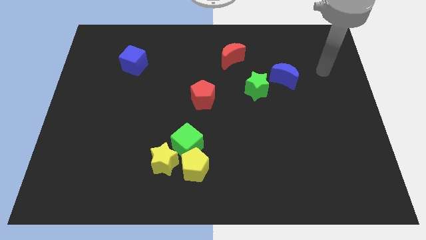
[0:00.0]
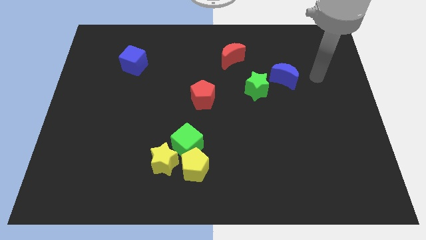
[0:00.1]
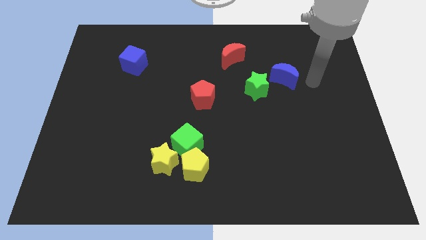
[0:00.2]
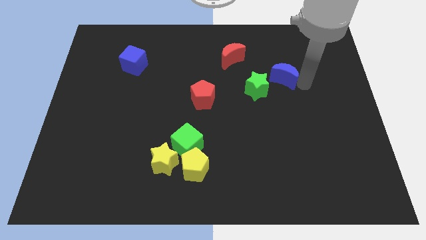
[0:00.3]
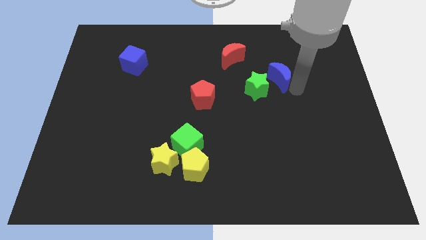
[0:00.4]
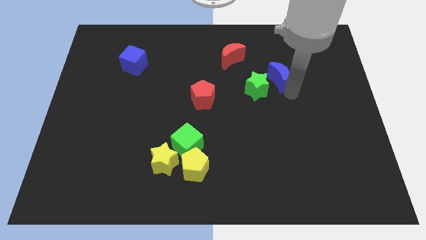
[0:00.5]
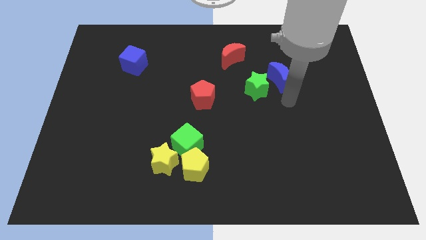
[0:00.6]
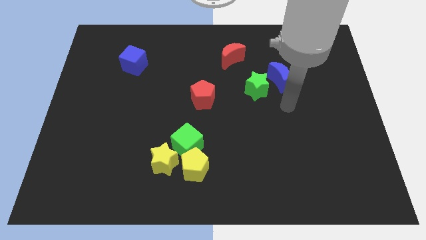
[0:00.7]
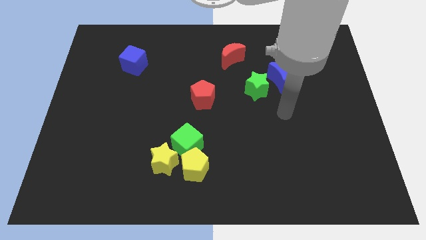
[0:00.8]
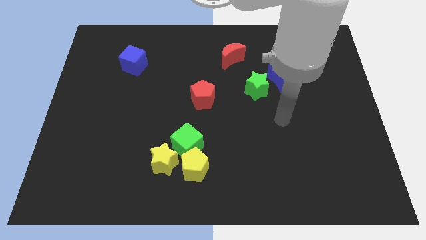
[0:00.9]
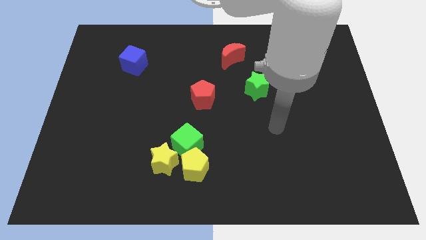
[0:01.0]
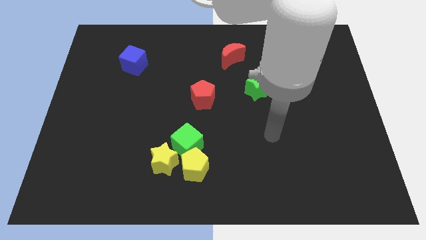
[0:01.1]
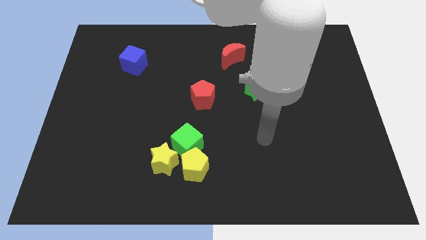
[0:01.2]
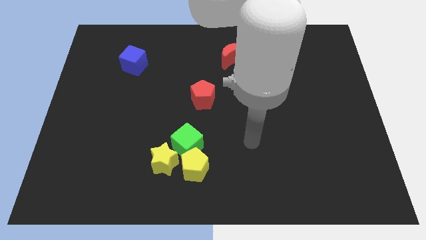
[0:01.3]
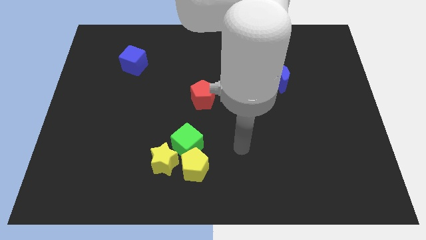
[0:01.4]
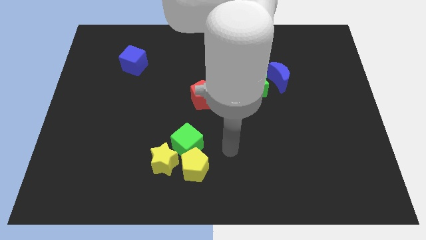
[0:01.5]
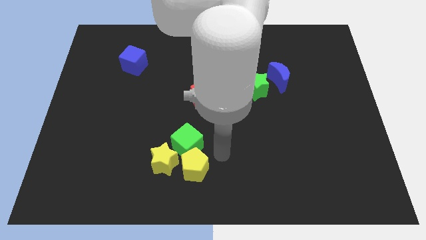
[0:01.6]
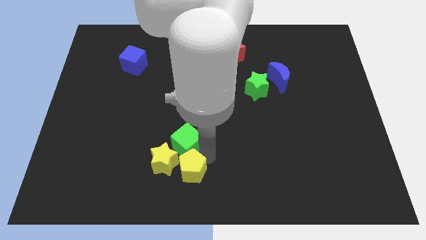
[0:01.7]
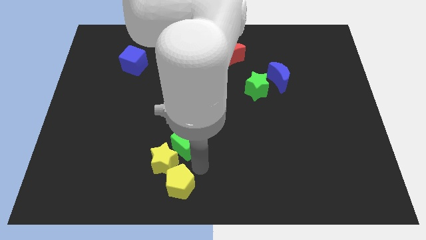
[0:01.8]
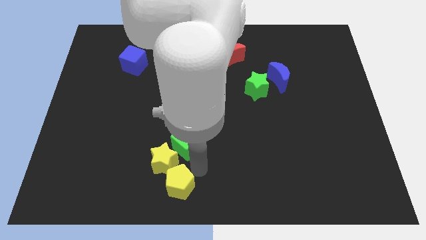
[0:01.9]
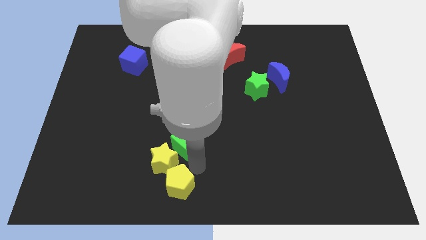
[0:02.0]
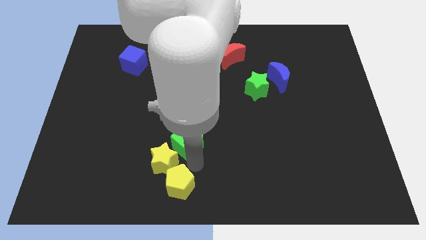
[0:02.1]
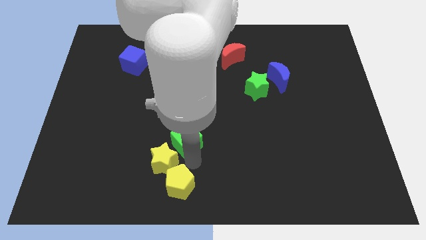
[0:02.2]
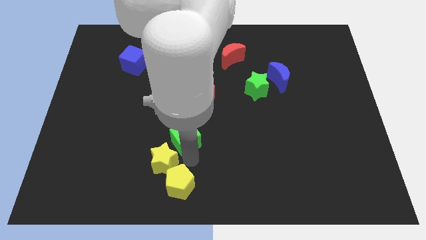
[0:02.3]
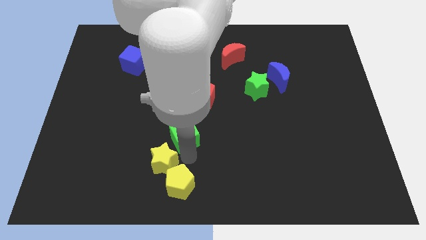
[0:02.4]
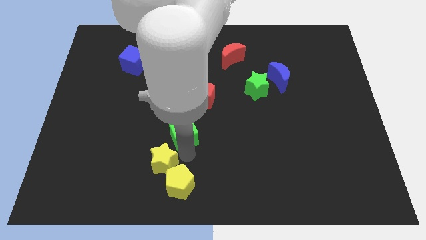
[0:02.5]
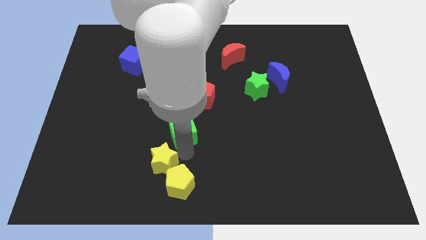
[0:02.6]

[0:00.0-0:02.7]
move the green cube away from the yellow pentagon and yellow star

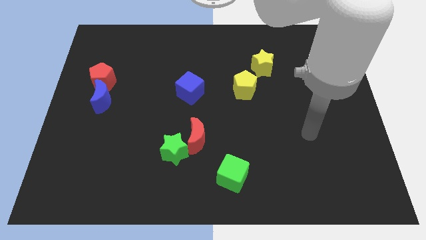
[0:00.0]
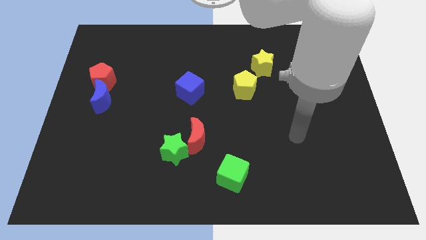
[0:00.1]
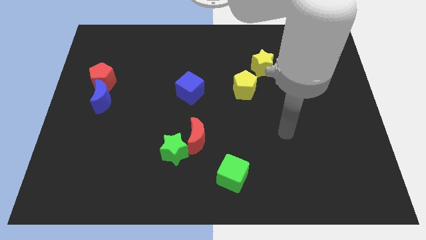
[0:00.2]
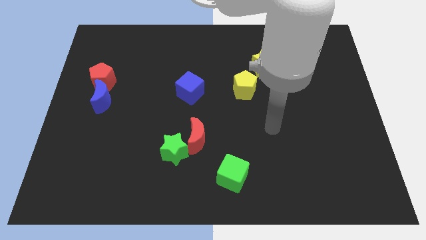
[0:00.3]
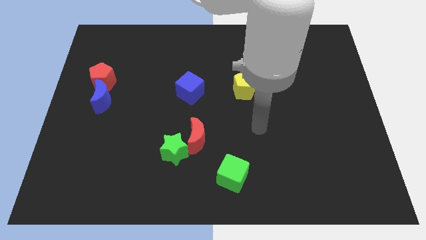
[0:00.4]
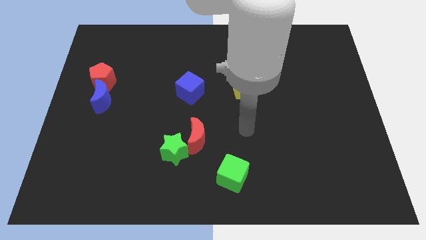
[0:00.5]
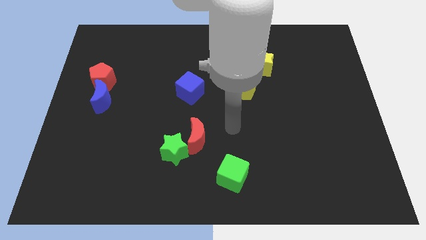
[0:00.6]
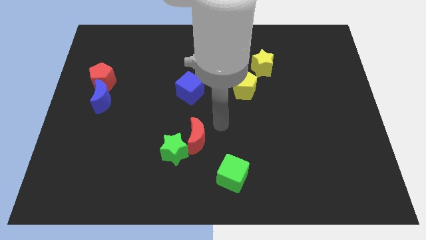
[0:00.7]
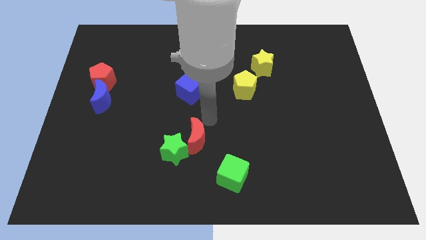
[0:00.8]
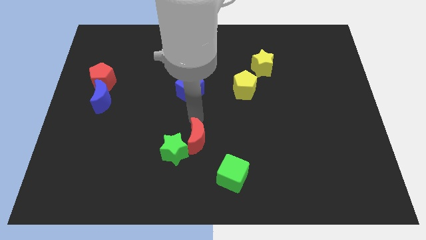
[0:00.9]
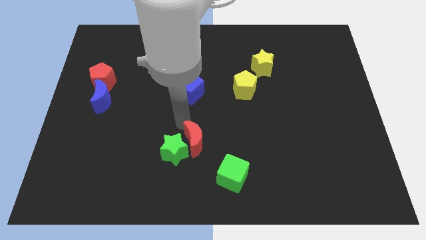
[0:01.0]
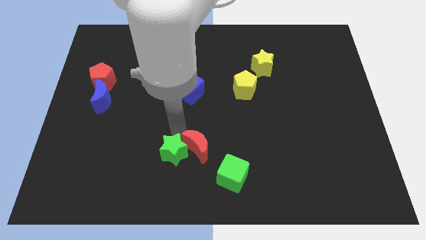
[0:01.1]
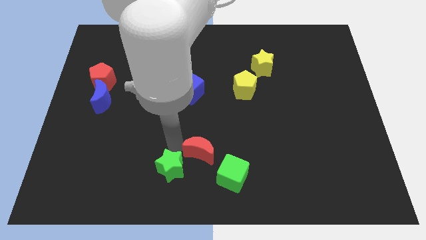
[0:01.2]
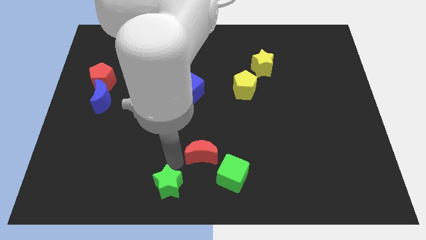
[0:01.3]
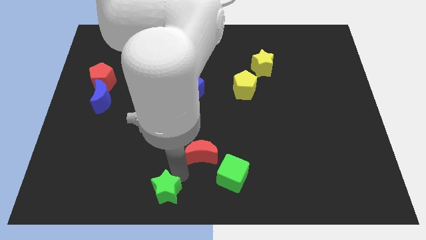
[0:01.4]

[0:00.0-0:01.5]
separate the red moon from the green star

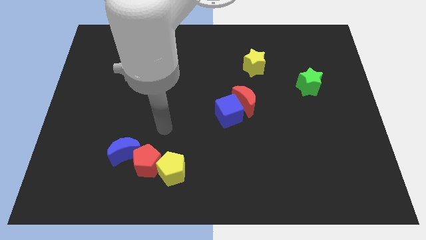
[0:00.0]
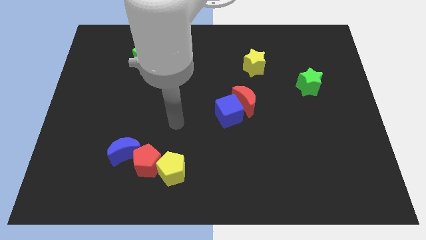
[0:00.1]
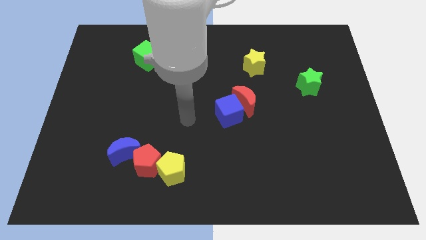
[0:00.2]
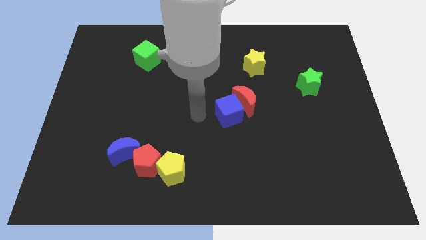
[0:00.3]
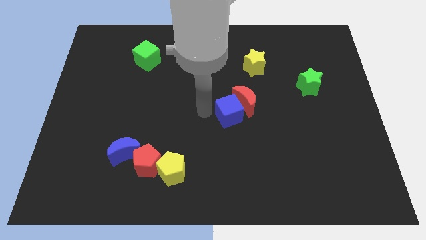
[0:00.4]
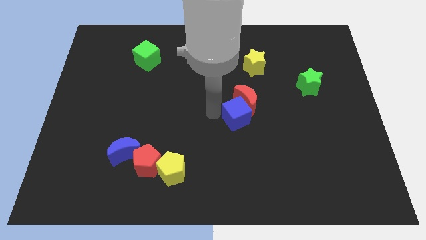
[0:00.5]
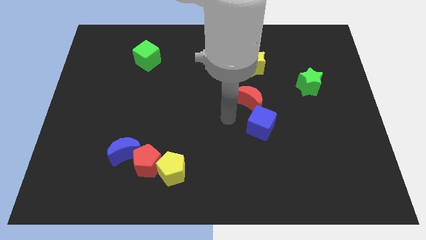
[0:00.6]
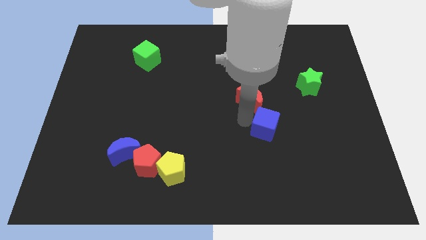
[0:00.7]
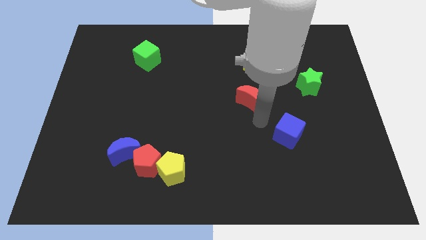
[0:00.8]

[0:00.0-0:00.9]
separate the red moon from the blue cube

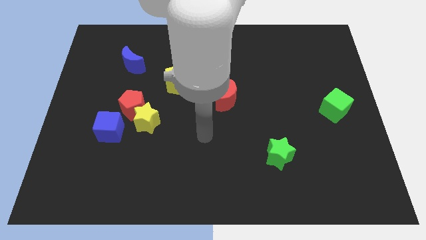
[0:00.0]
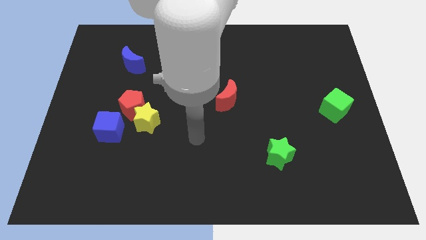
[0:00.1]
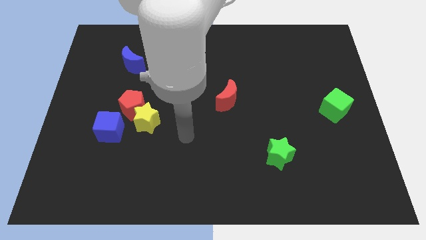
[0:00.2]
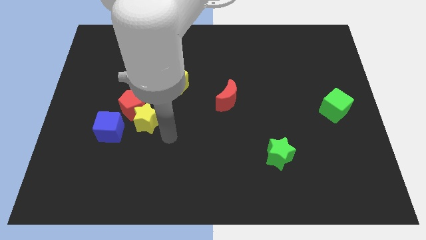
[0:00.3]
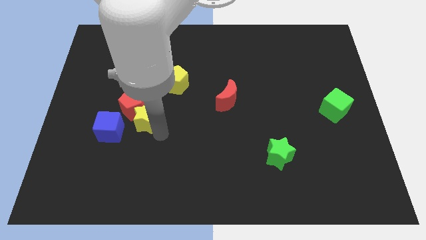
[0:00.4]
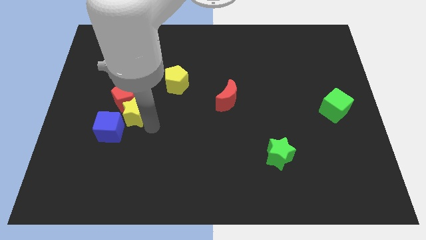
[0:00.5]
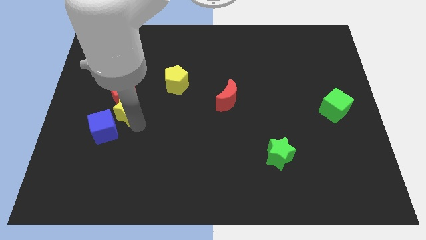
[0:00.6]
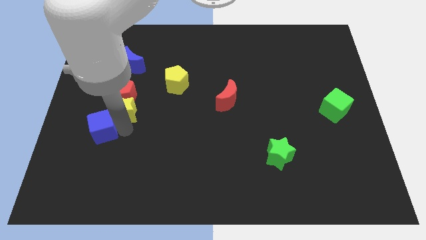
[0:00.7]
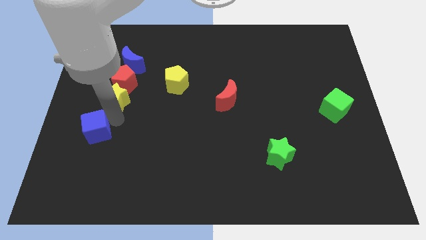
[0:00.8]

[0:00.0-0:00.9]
separate the red pentagon from the yellow star and blue cube

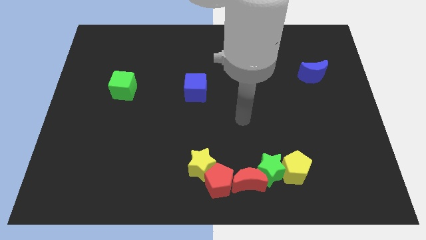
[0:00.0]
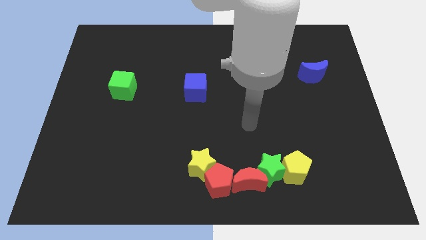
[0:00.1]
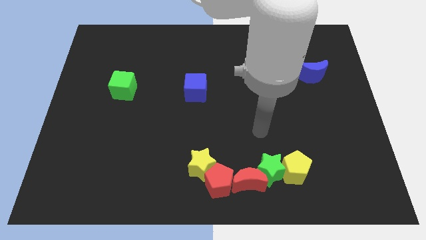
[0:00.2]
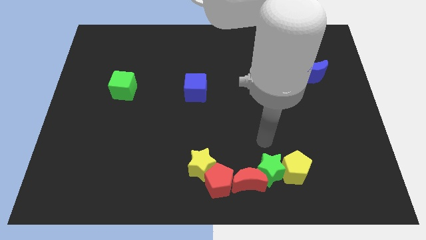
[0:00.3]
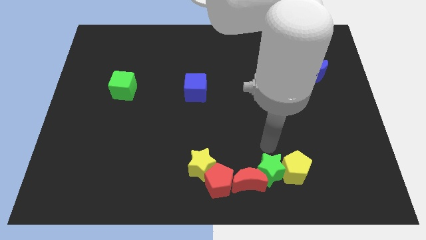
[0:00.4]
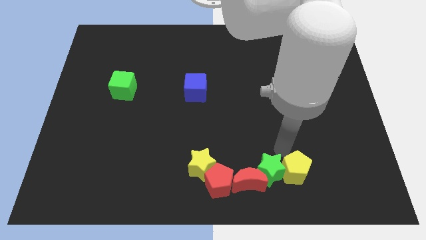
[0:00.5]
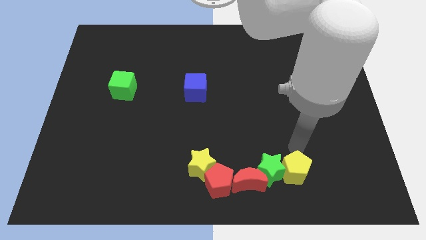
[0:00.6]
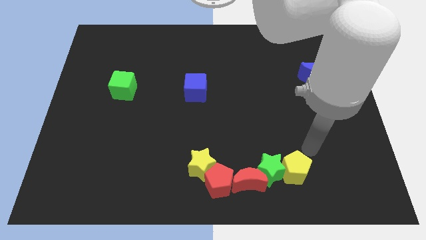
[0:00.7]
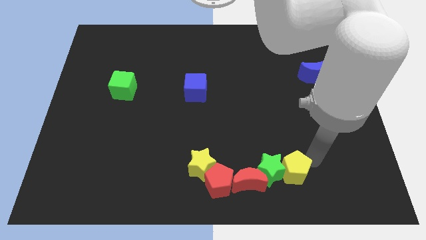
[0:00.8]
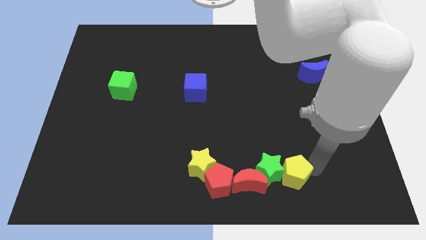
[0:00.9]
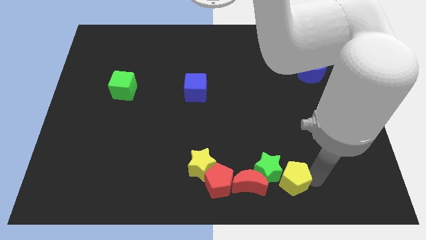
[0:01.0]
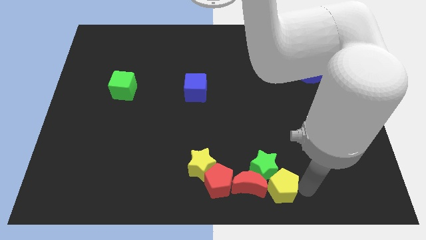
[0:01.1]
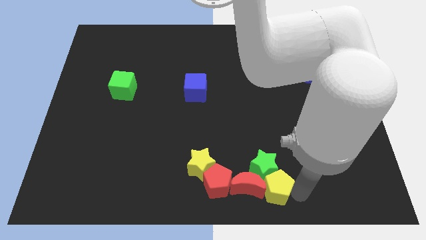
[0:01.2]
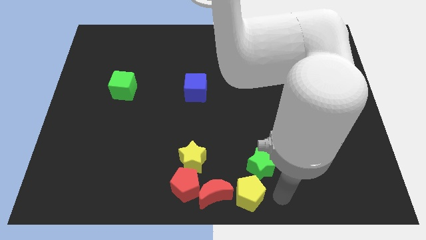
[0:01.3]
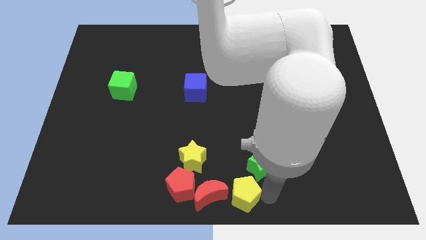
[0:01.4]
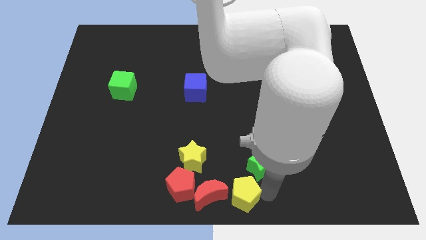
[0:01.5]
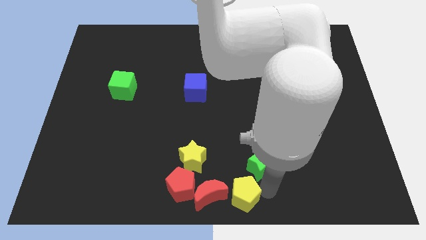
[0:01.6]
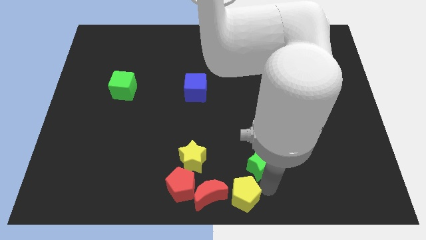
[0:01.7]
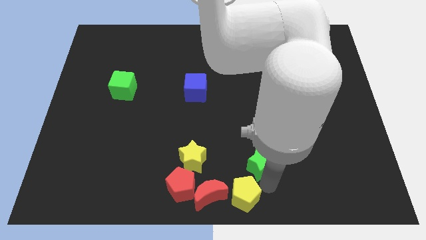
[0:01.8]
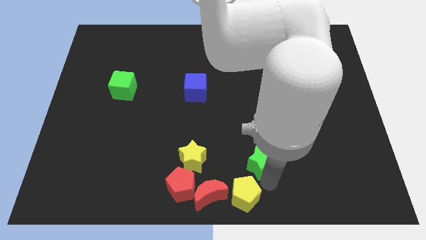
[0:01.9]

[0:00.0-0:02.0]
move the green star away from the yellow pentagon and red moon

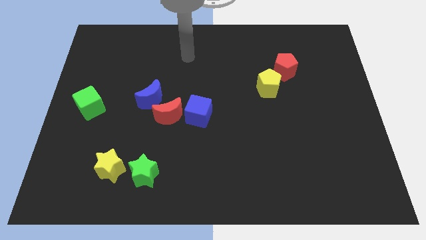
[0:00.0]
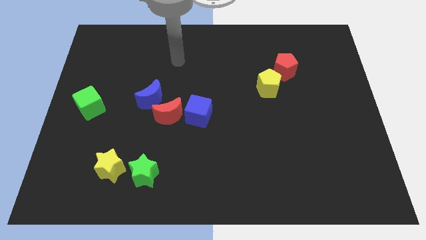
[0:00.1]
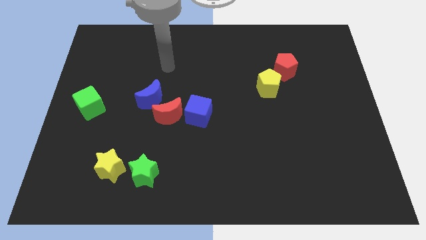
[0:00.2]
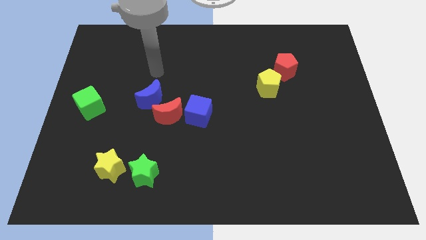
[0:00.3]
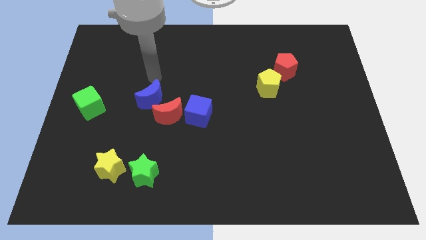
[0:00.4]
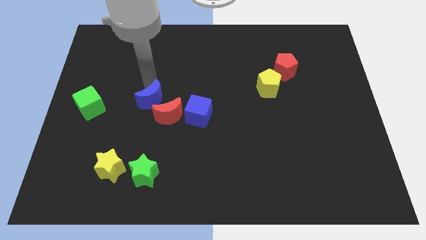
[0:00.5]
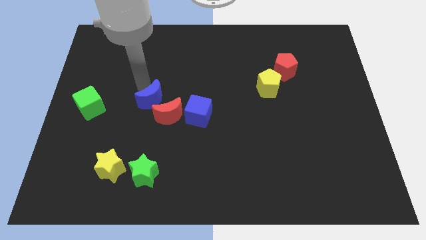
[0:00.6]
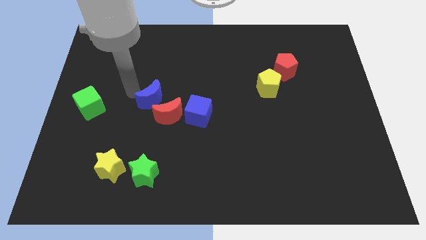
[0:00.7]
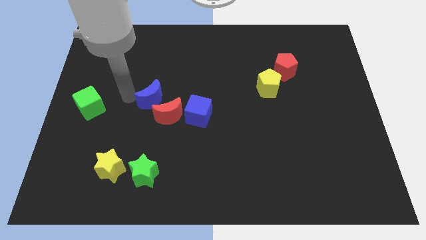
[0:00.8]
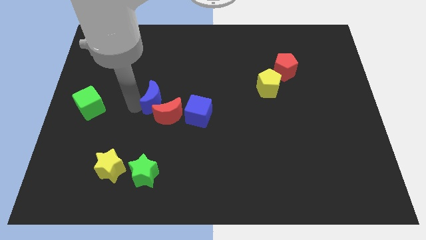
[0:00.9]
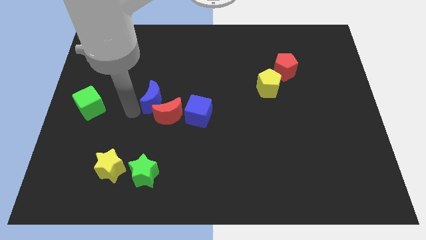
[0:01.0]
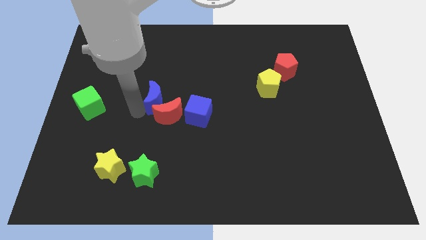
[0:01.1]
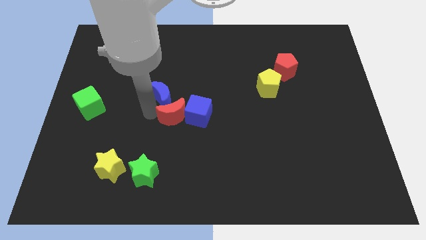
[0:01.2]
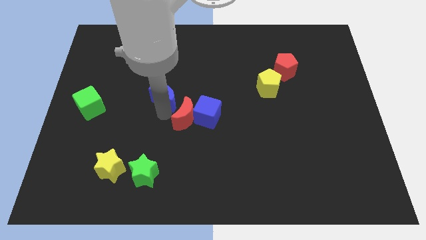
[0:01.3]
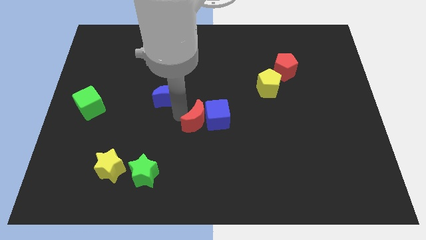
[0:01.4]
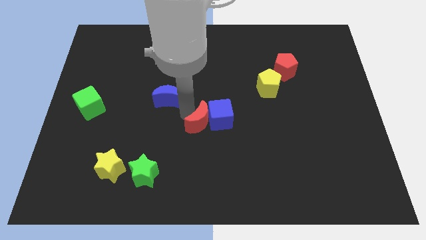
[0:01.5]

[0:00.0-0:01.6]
pull the blue moon apart from the red moon
